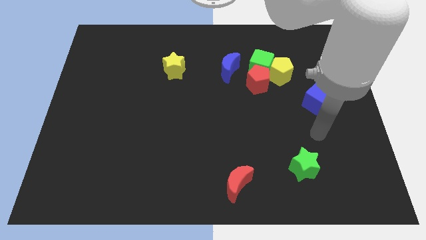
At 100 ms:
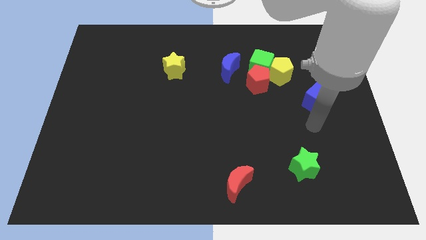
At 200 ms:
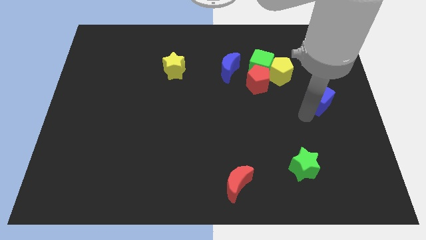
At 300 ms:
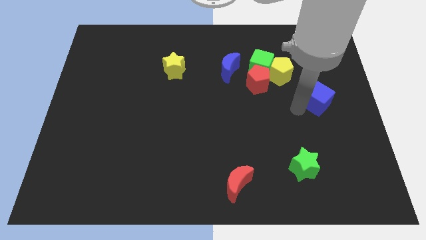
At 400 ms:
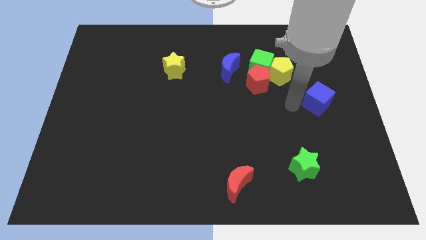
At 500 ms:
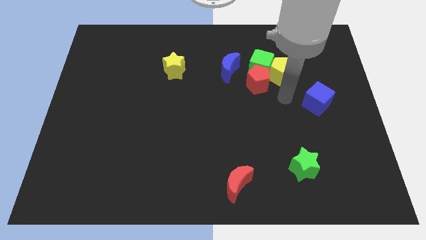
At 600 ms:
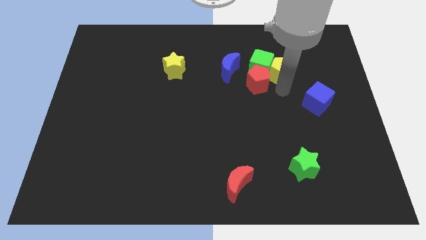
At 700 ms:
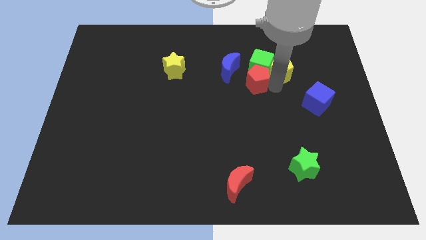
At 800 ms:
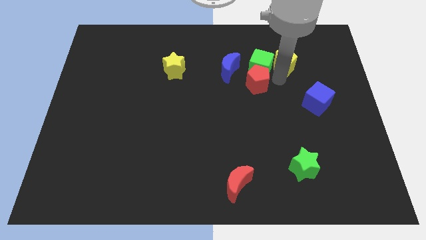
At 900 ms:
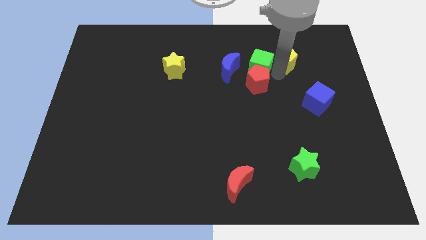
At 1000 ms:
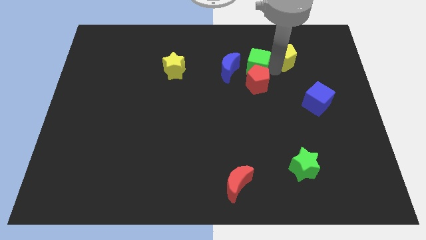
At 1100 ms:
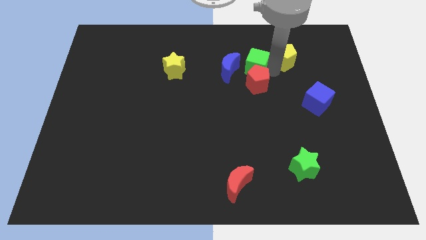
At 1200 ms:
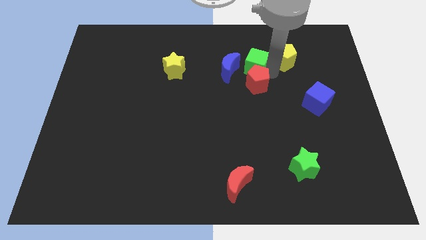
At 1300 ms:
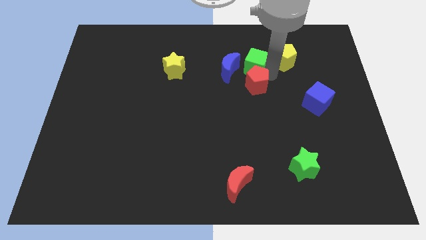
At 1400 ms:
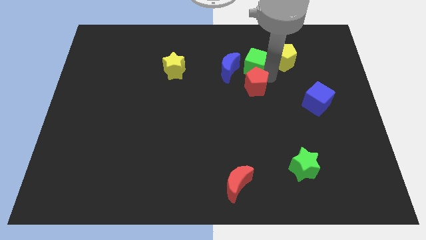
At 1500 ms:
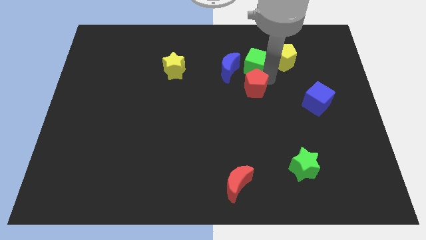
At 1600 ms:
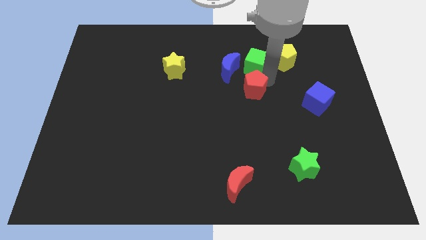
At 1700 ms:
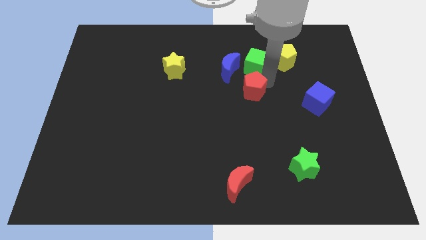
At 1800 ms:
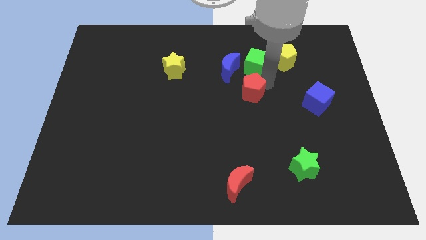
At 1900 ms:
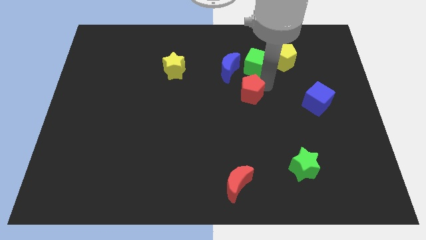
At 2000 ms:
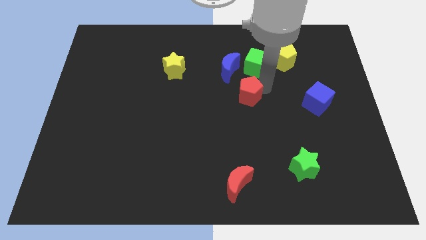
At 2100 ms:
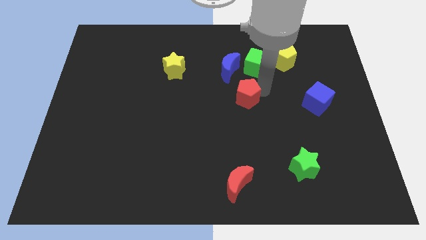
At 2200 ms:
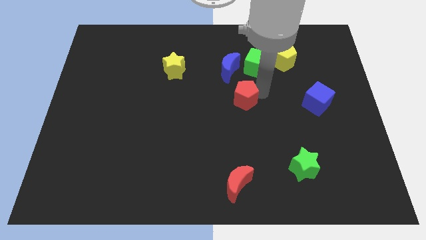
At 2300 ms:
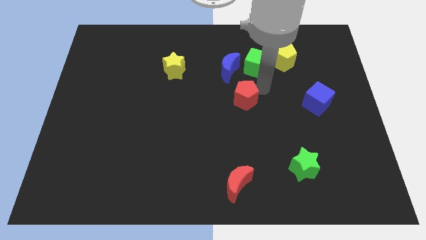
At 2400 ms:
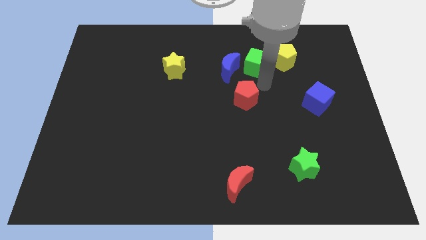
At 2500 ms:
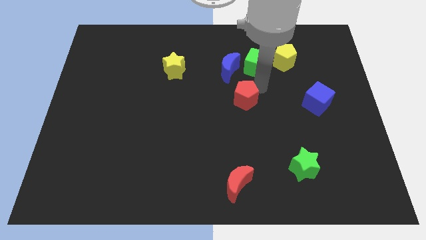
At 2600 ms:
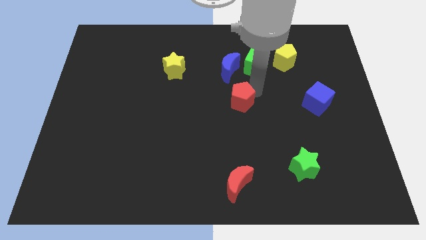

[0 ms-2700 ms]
push the red pentagon a little down and then to the left

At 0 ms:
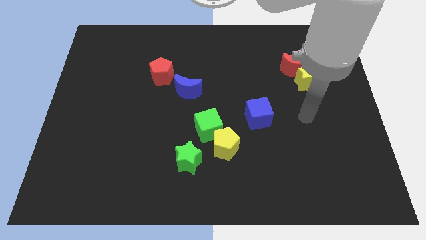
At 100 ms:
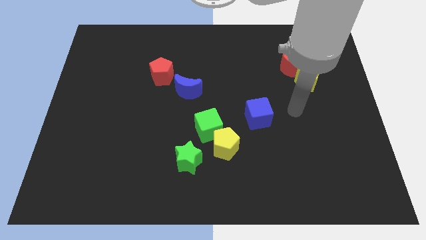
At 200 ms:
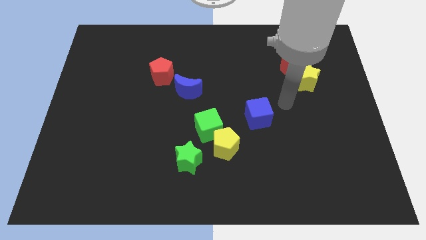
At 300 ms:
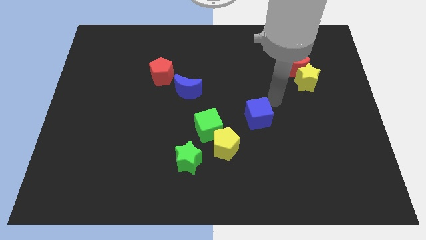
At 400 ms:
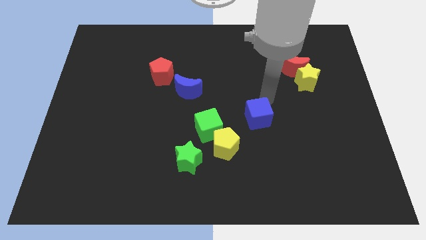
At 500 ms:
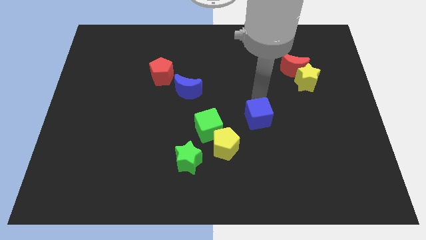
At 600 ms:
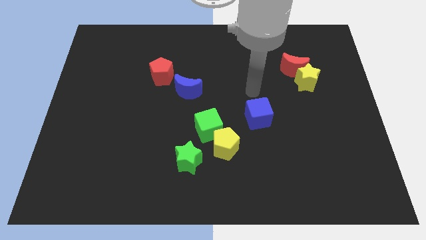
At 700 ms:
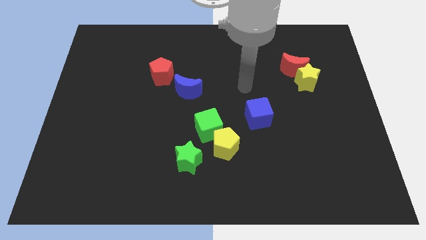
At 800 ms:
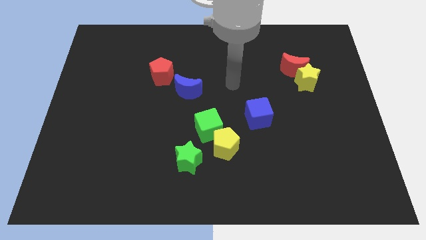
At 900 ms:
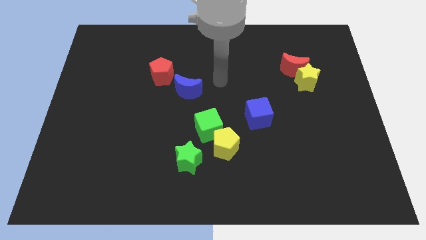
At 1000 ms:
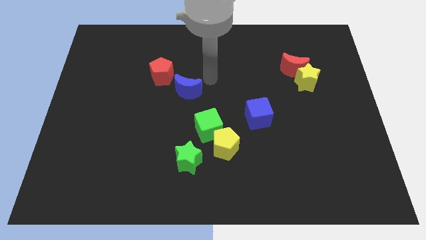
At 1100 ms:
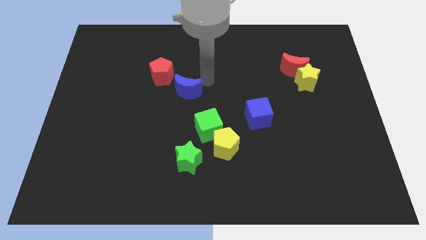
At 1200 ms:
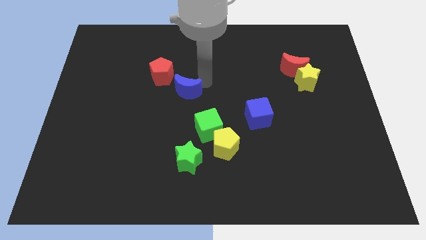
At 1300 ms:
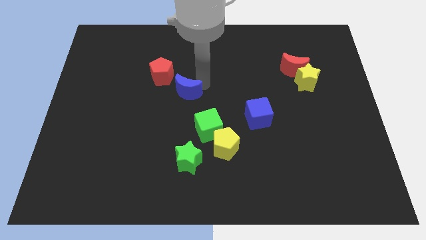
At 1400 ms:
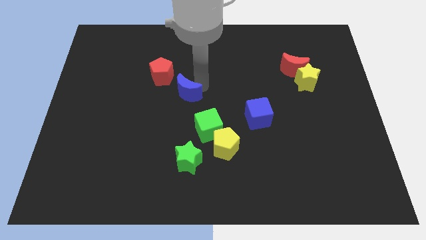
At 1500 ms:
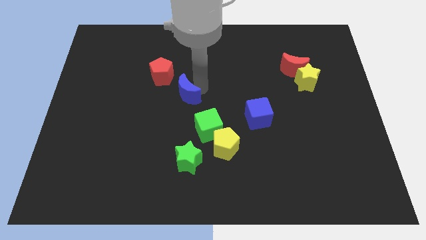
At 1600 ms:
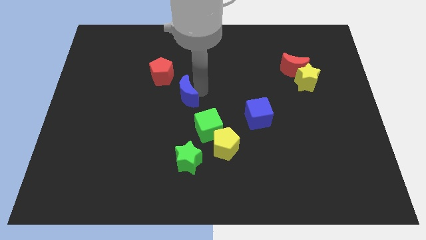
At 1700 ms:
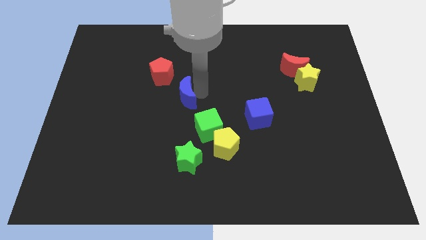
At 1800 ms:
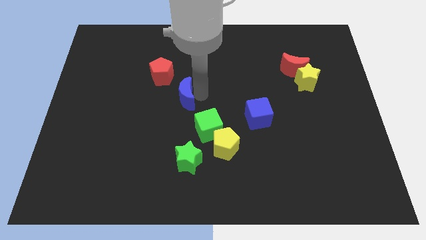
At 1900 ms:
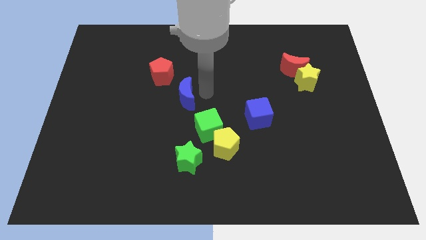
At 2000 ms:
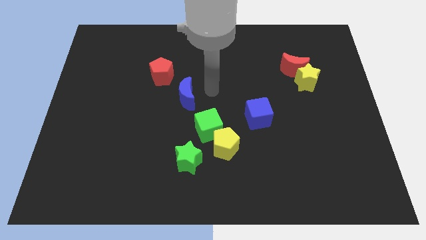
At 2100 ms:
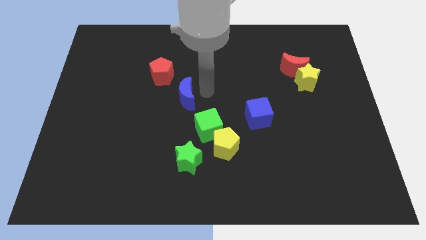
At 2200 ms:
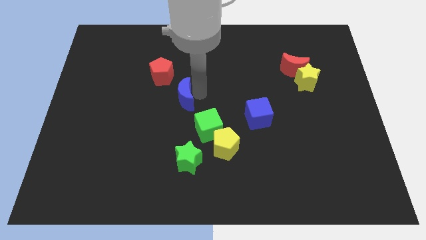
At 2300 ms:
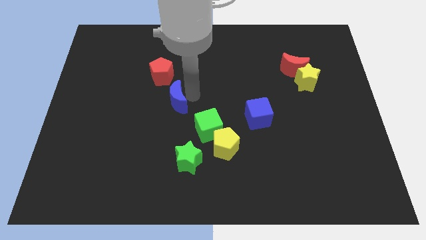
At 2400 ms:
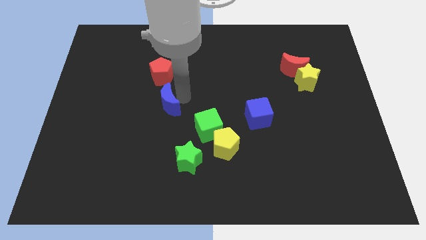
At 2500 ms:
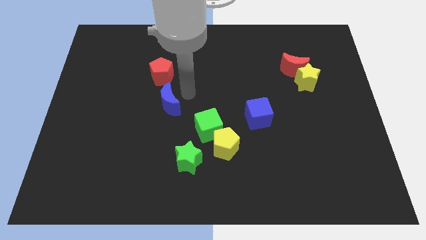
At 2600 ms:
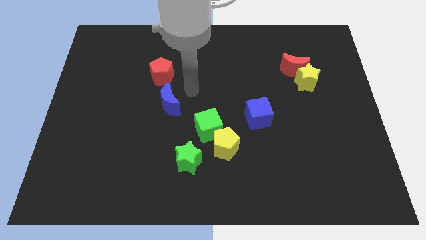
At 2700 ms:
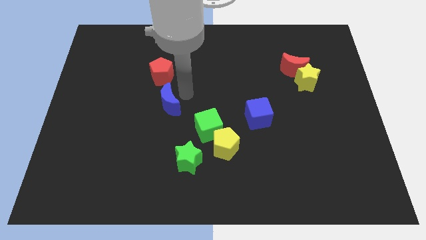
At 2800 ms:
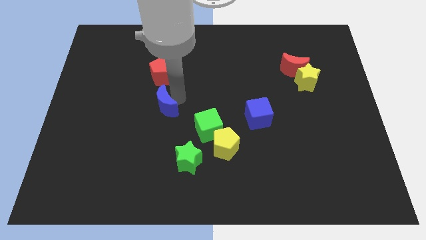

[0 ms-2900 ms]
move the blue moon down and to the left a little

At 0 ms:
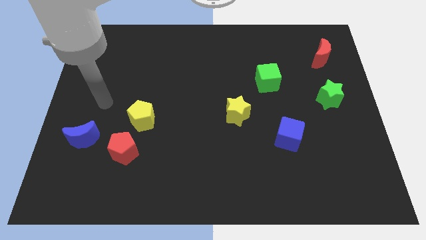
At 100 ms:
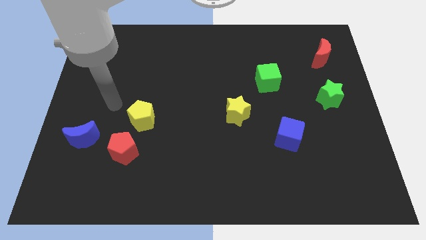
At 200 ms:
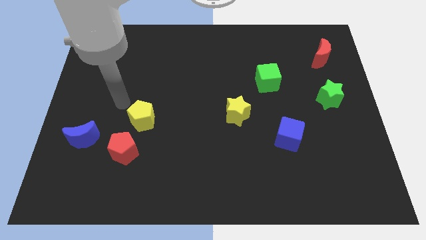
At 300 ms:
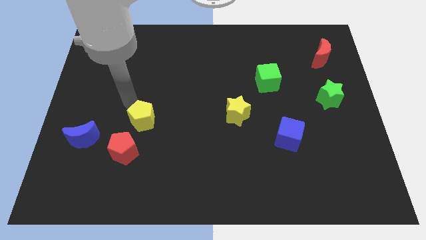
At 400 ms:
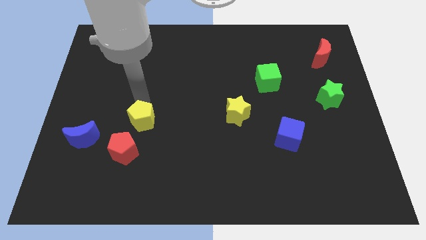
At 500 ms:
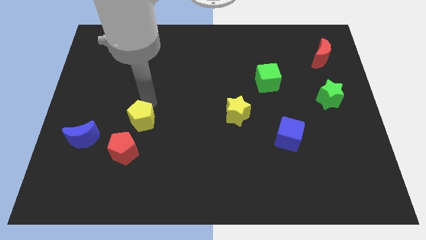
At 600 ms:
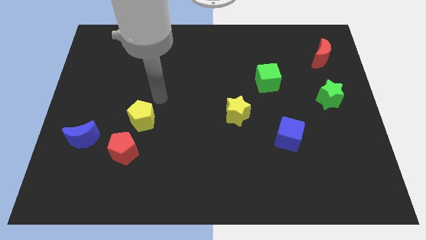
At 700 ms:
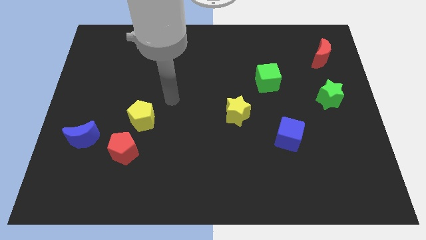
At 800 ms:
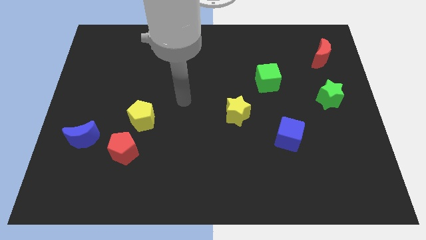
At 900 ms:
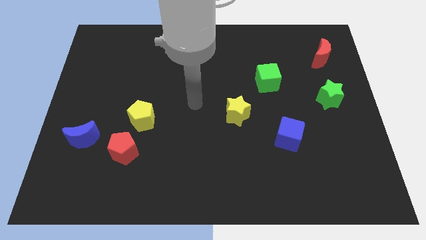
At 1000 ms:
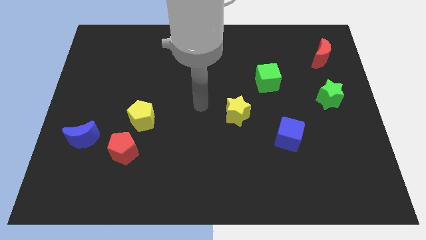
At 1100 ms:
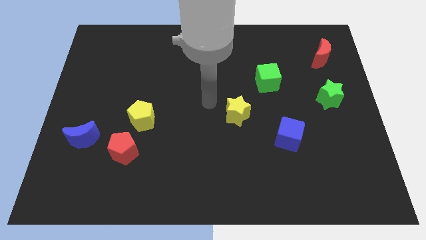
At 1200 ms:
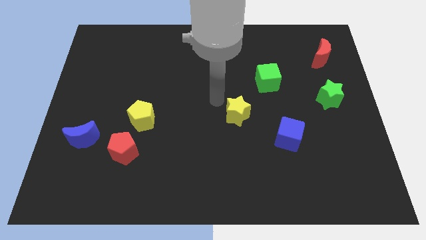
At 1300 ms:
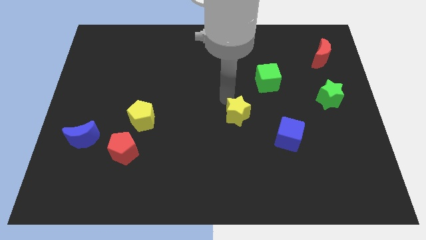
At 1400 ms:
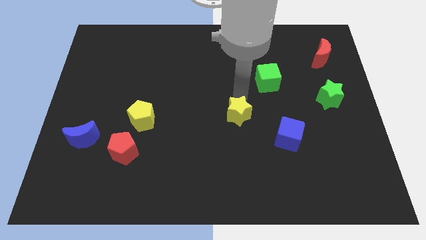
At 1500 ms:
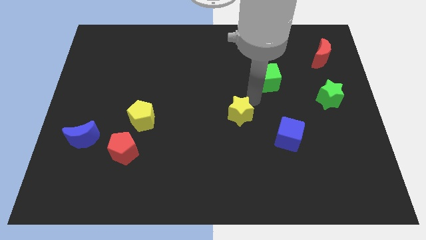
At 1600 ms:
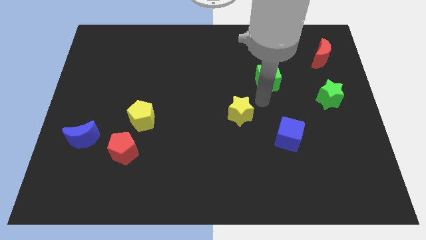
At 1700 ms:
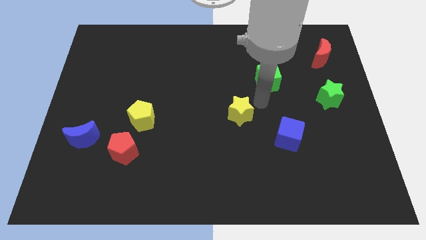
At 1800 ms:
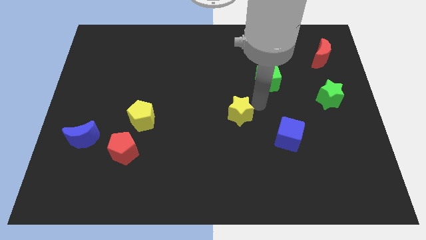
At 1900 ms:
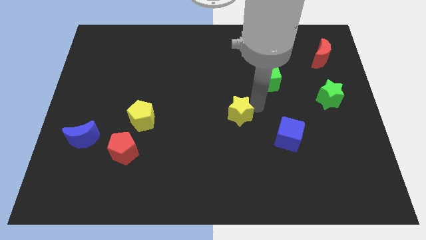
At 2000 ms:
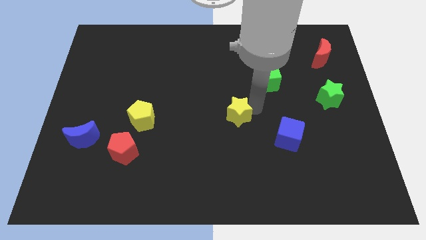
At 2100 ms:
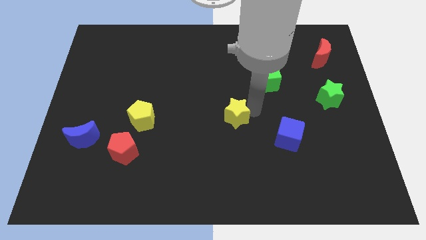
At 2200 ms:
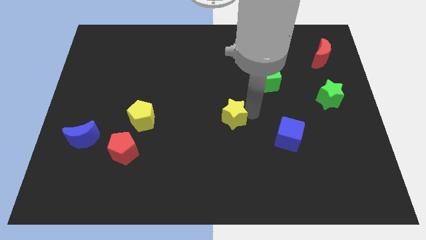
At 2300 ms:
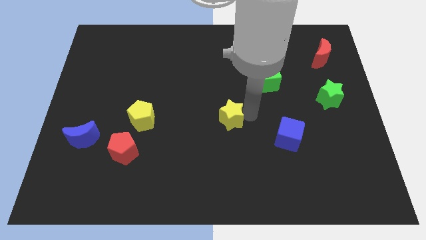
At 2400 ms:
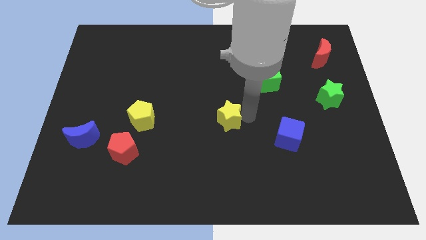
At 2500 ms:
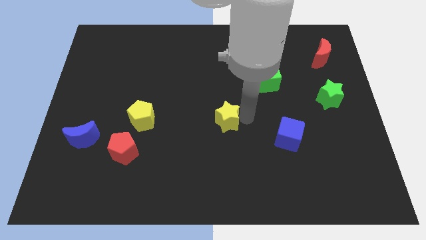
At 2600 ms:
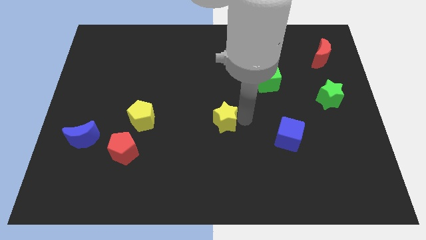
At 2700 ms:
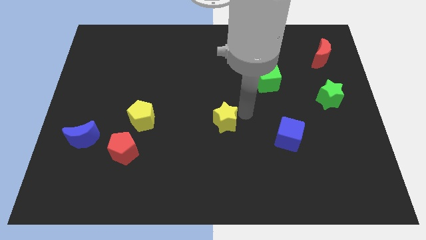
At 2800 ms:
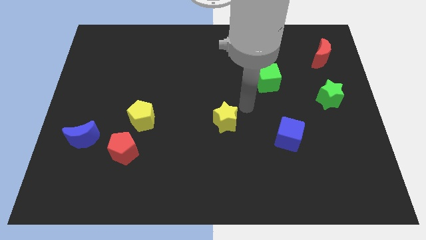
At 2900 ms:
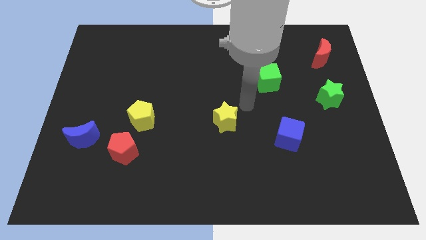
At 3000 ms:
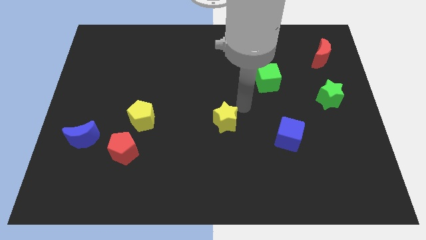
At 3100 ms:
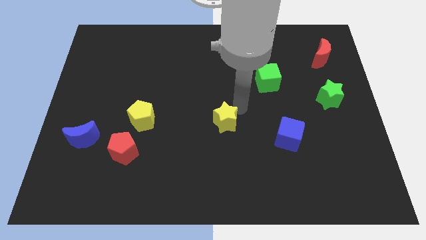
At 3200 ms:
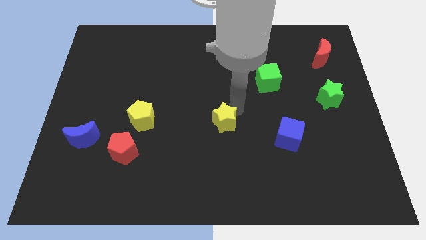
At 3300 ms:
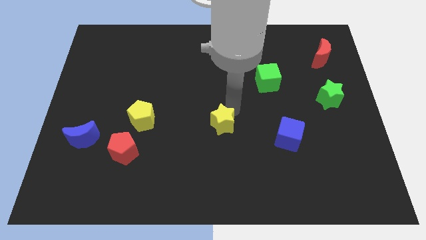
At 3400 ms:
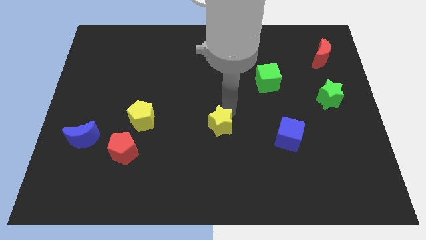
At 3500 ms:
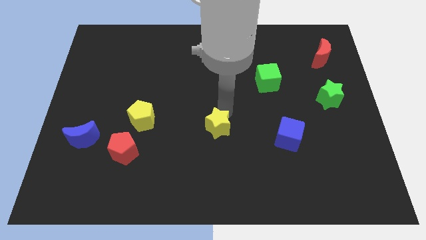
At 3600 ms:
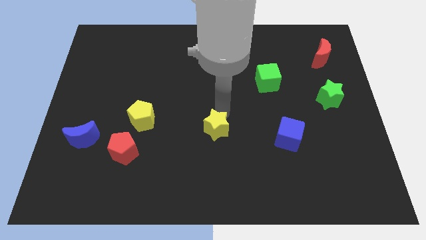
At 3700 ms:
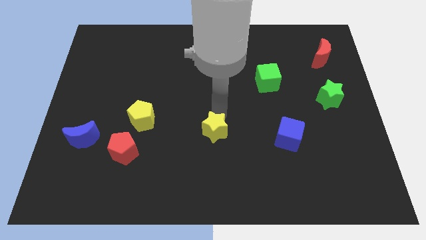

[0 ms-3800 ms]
move the yellow star diagonally downwards and to the left a bit
